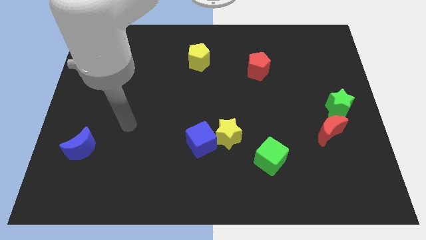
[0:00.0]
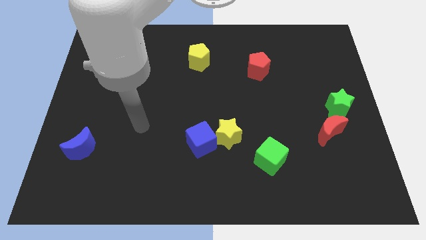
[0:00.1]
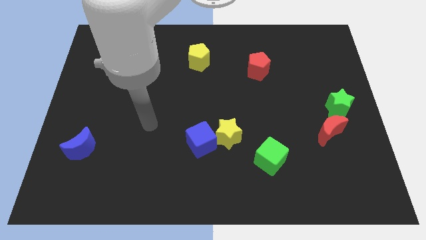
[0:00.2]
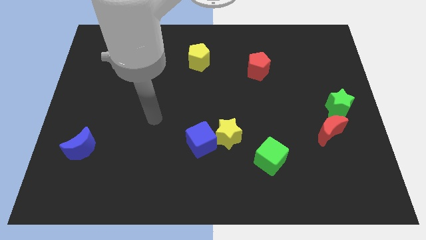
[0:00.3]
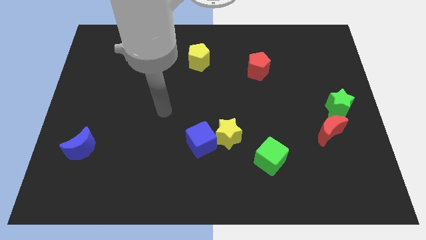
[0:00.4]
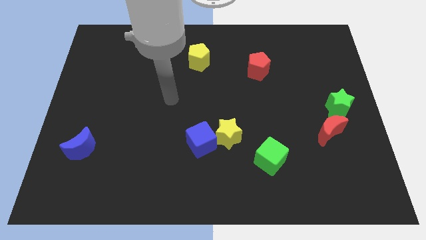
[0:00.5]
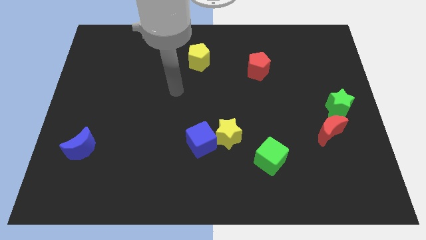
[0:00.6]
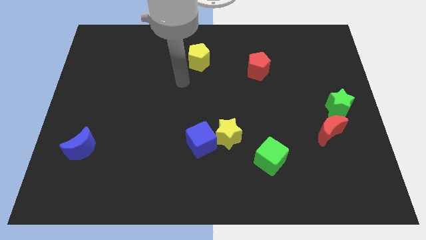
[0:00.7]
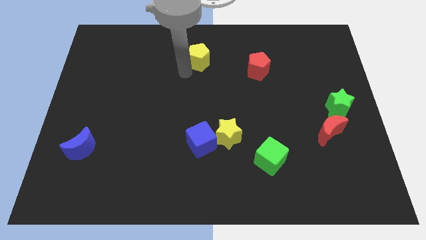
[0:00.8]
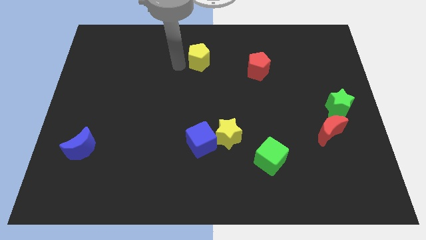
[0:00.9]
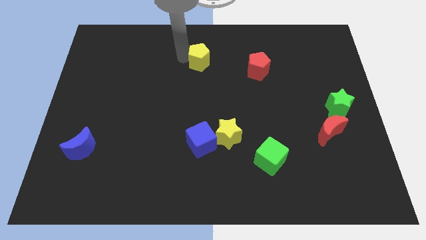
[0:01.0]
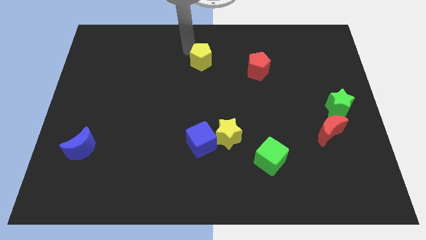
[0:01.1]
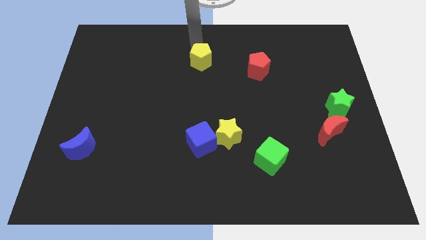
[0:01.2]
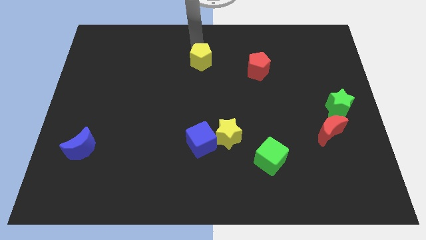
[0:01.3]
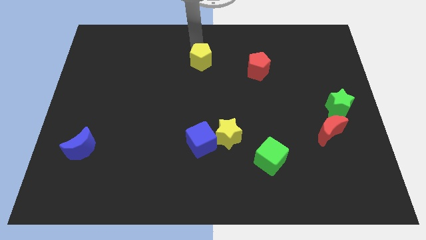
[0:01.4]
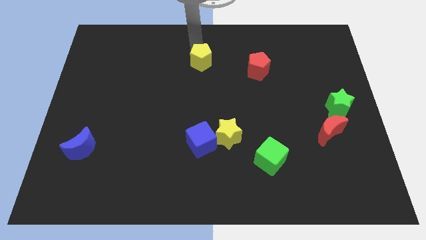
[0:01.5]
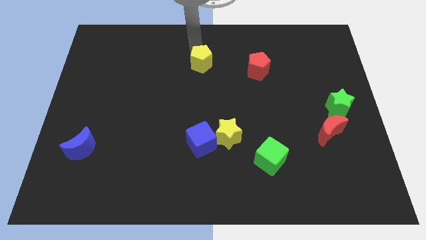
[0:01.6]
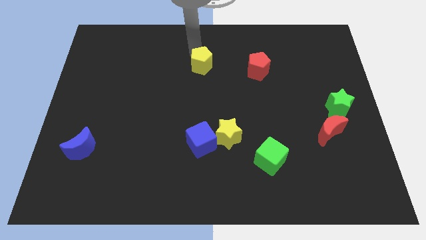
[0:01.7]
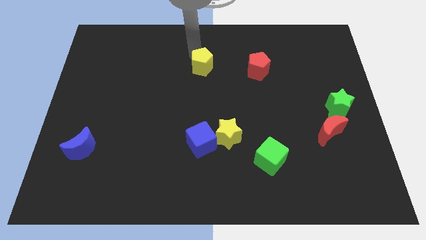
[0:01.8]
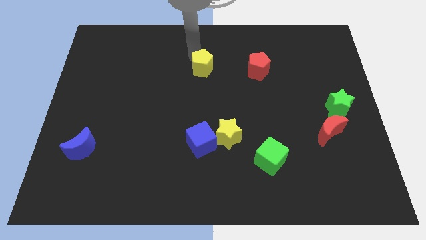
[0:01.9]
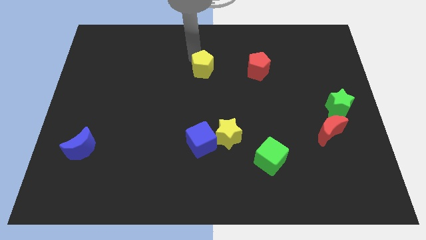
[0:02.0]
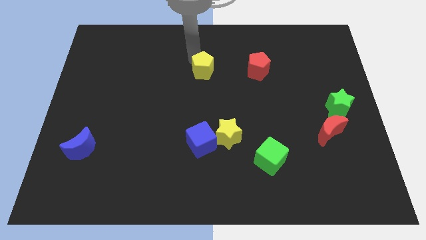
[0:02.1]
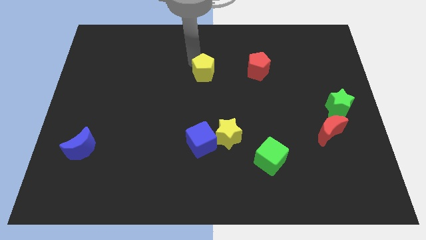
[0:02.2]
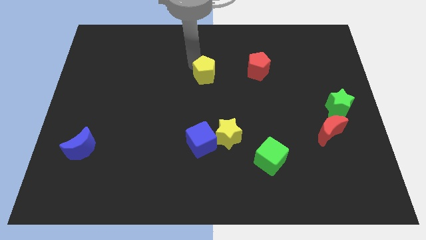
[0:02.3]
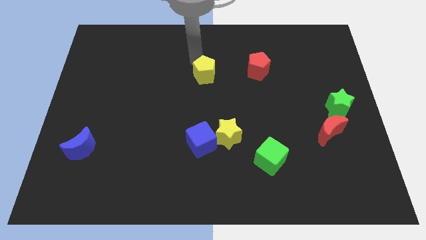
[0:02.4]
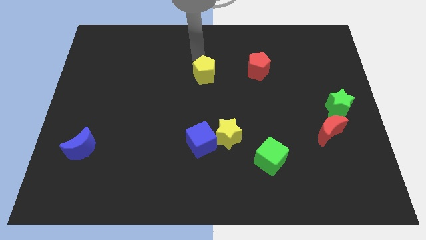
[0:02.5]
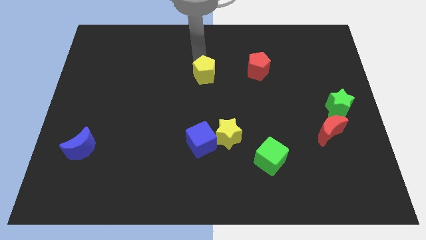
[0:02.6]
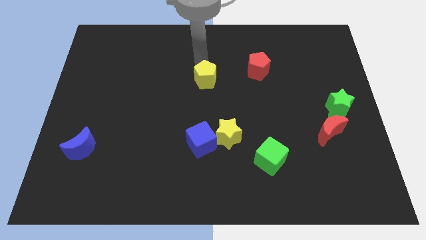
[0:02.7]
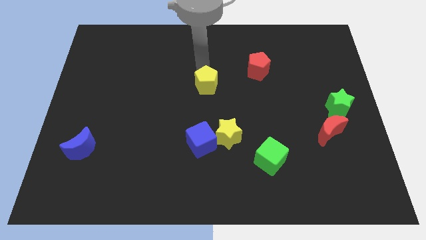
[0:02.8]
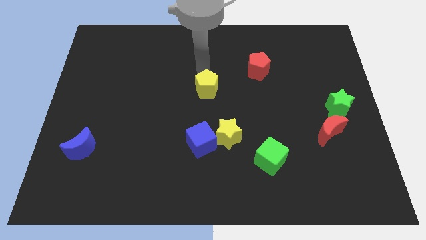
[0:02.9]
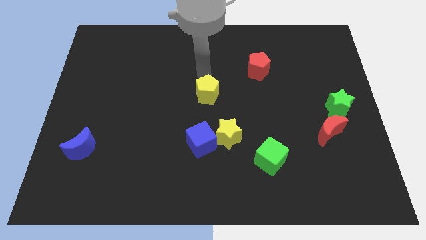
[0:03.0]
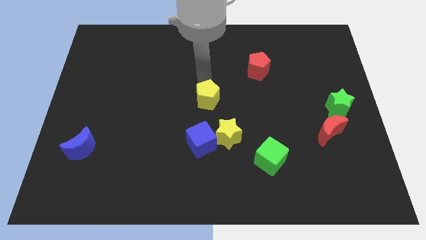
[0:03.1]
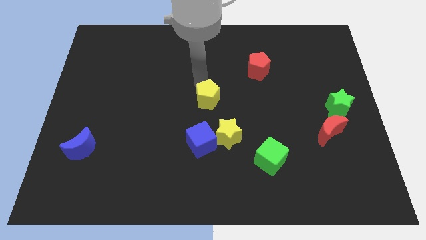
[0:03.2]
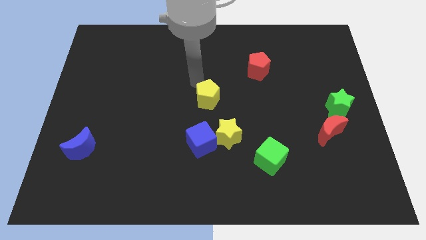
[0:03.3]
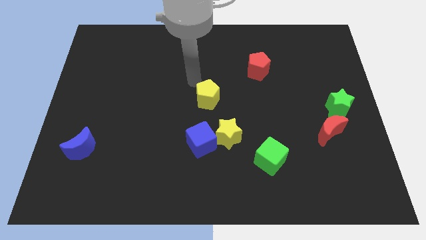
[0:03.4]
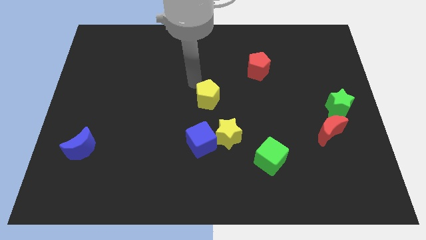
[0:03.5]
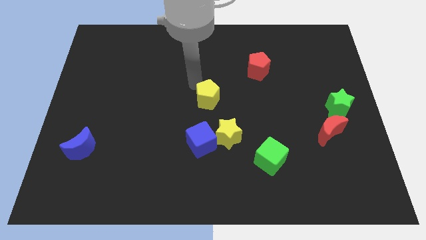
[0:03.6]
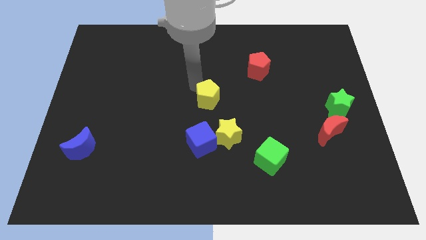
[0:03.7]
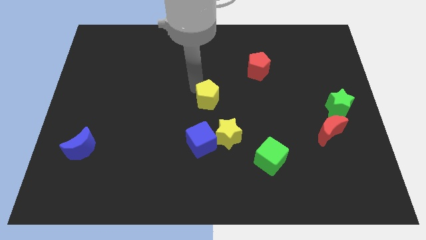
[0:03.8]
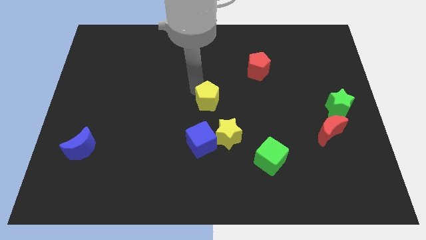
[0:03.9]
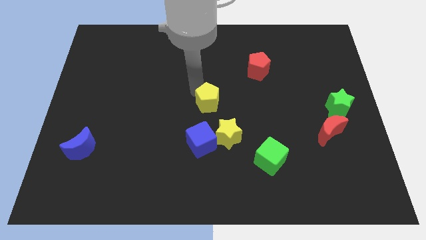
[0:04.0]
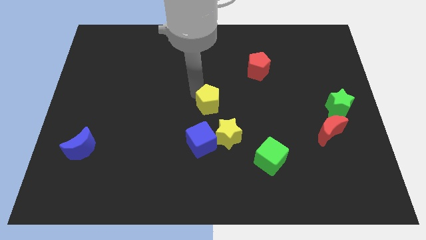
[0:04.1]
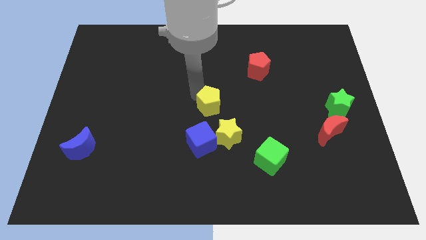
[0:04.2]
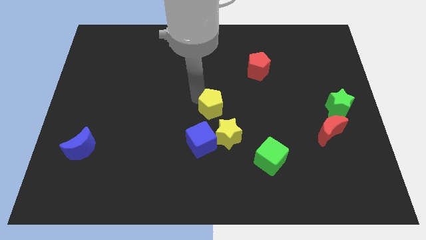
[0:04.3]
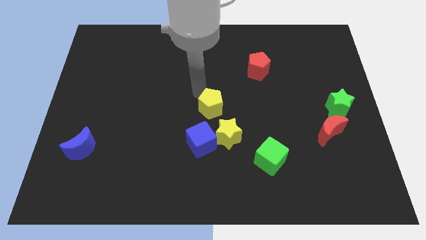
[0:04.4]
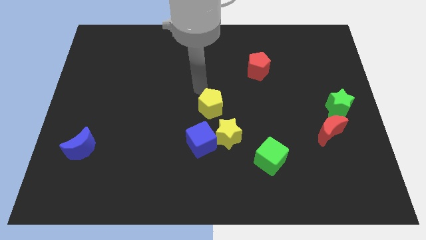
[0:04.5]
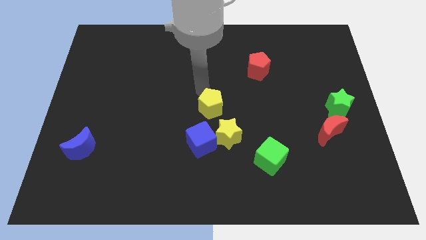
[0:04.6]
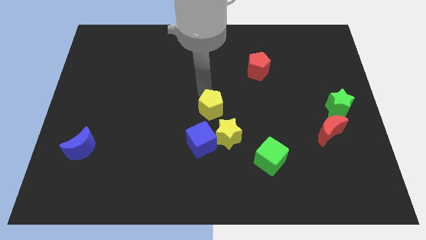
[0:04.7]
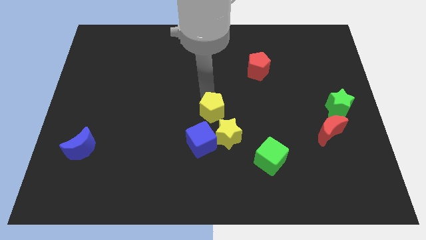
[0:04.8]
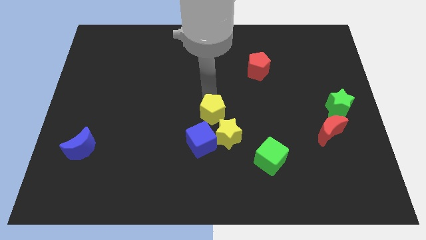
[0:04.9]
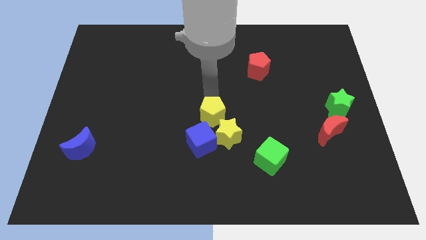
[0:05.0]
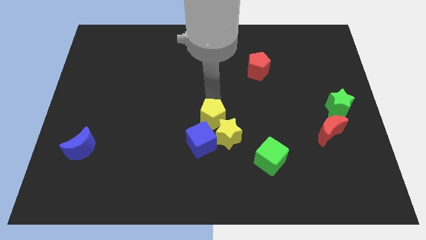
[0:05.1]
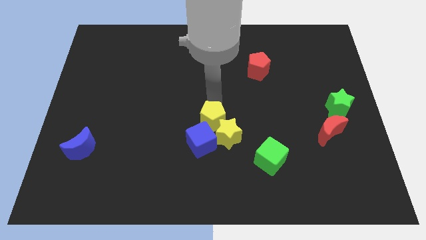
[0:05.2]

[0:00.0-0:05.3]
push the yellow pentagon to the yellow star

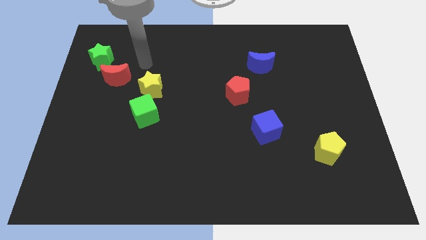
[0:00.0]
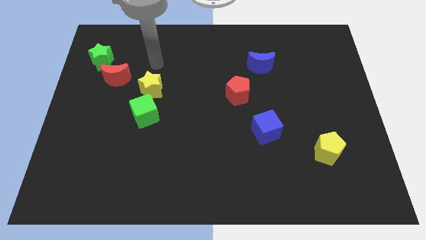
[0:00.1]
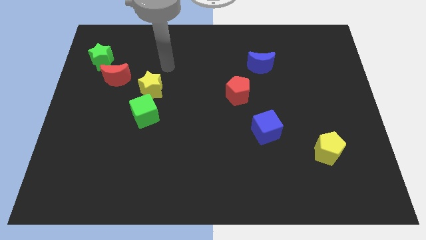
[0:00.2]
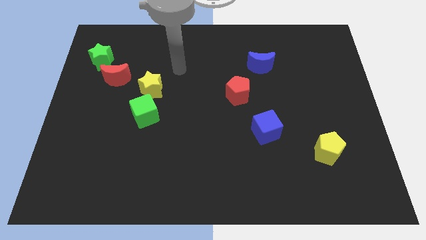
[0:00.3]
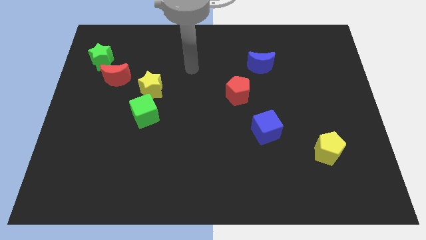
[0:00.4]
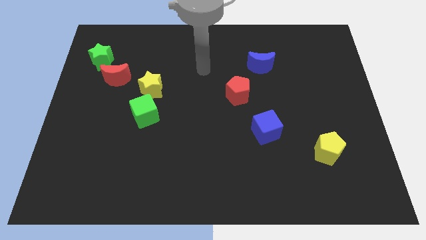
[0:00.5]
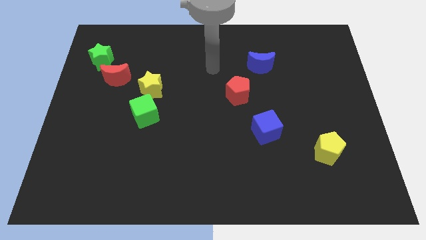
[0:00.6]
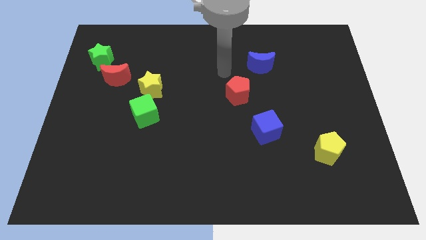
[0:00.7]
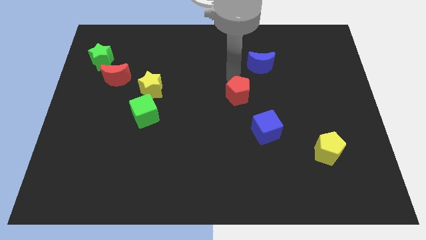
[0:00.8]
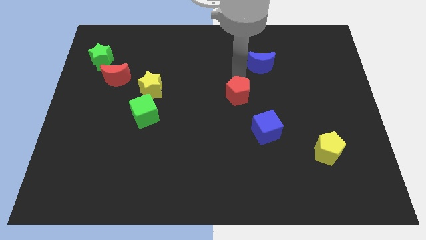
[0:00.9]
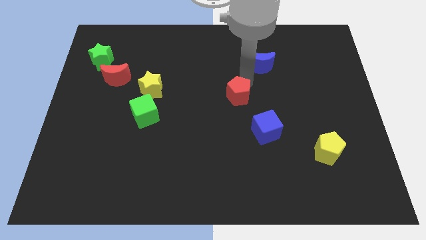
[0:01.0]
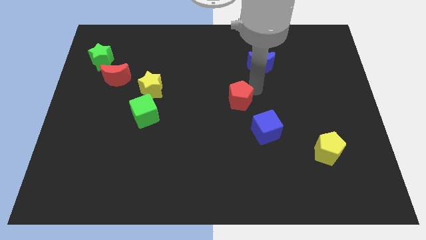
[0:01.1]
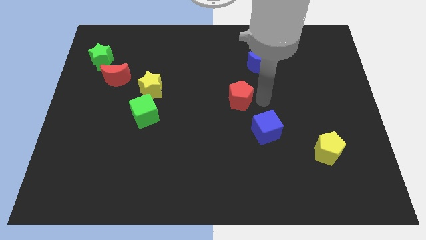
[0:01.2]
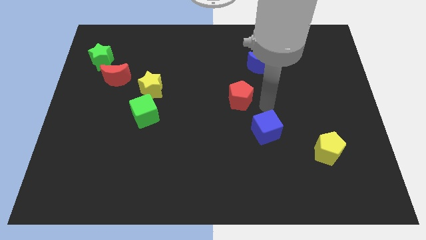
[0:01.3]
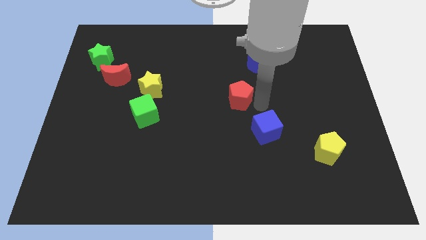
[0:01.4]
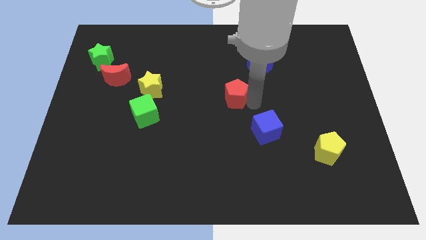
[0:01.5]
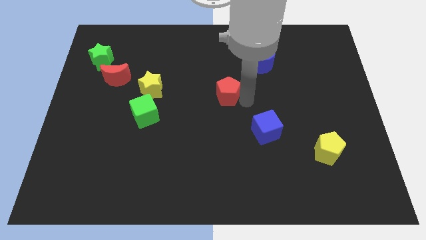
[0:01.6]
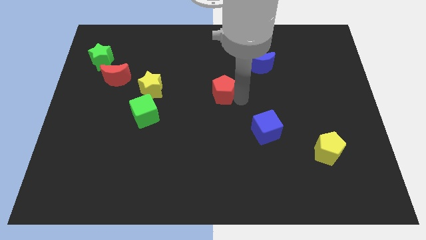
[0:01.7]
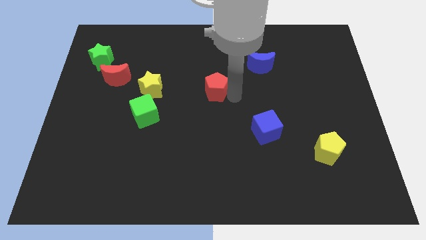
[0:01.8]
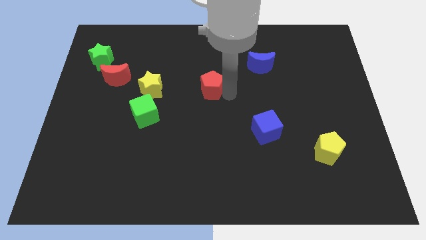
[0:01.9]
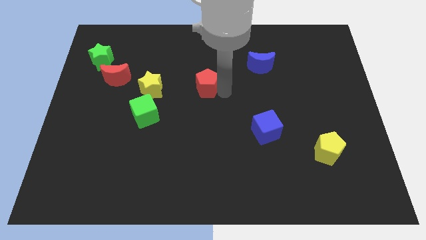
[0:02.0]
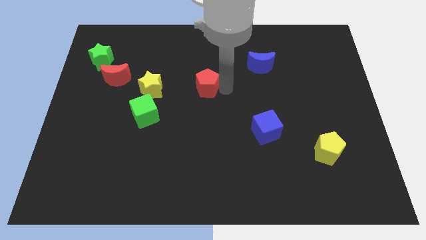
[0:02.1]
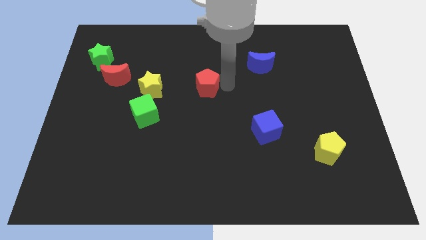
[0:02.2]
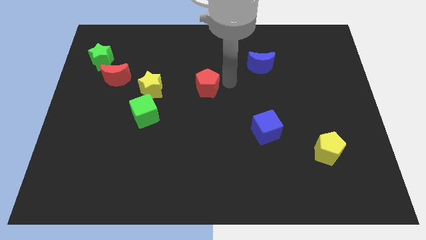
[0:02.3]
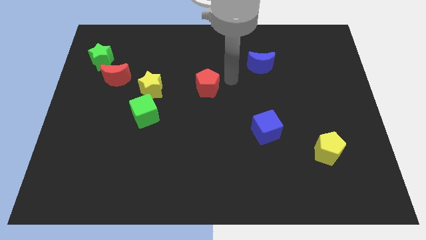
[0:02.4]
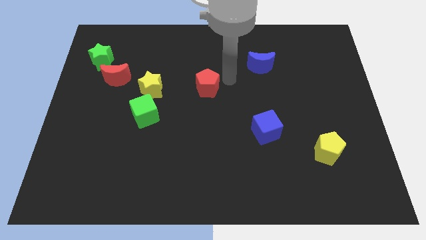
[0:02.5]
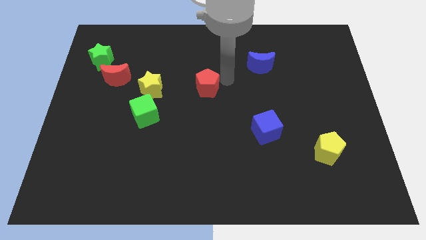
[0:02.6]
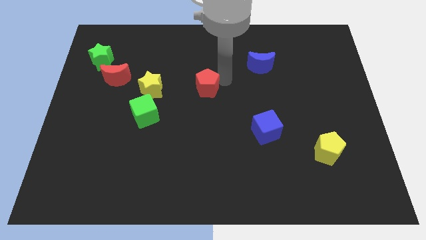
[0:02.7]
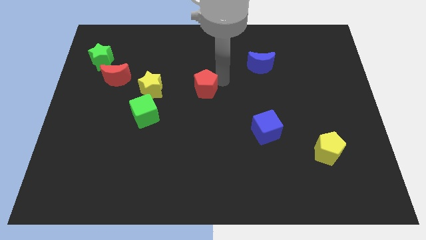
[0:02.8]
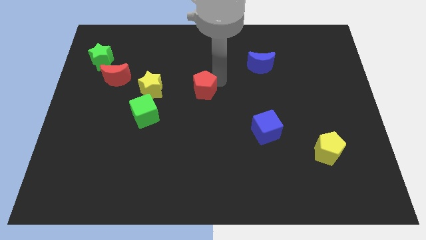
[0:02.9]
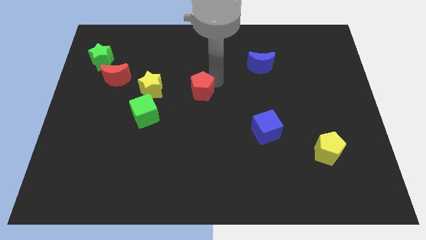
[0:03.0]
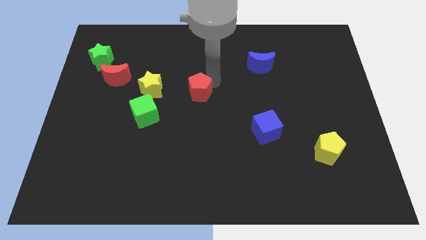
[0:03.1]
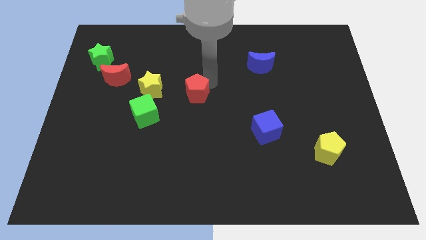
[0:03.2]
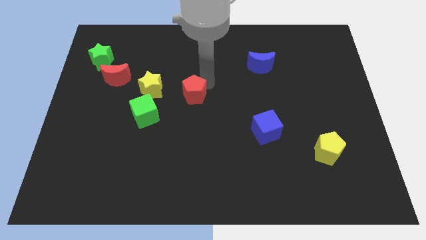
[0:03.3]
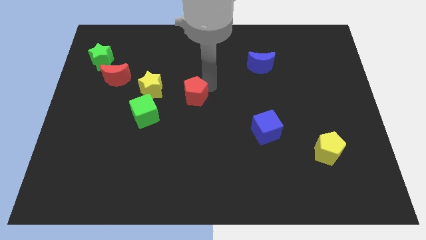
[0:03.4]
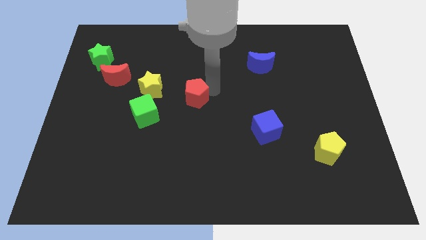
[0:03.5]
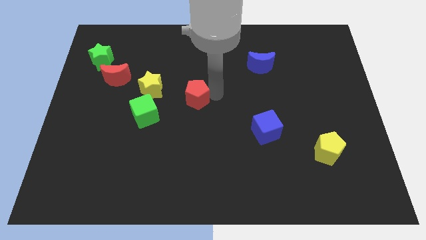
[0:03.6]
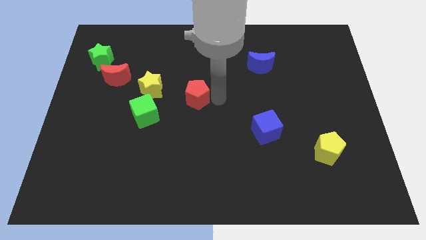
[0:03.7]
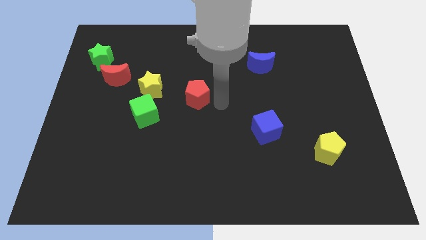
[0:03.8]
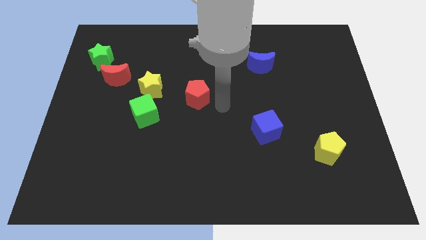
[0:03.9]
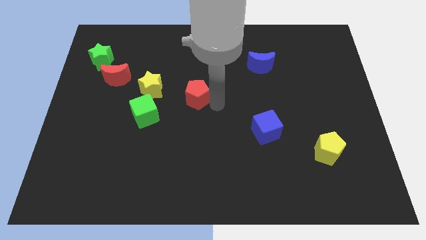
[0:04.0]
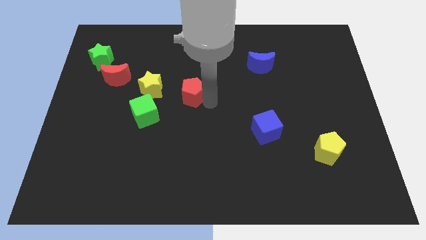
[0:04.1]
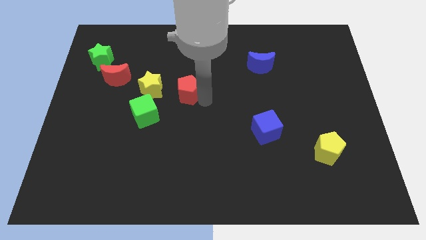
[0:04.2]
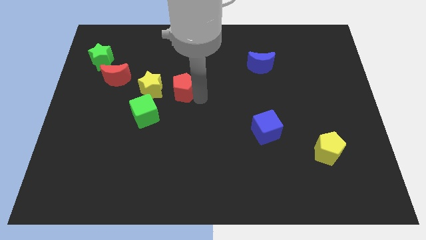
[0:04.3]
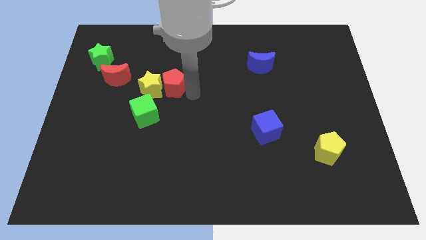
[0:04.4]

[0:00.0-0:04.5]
put the red pentagon next to the yellow star
